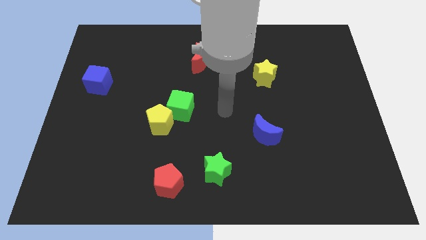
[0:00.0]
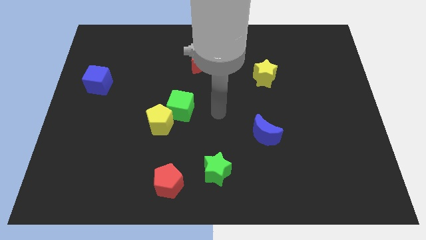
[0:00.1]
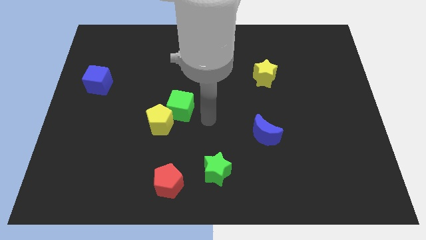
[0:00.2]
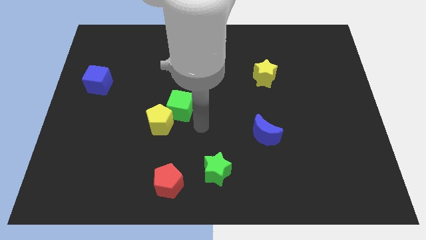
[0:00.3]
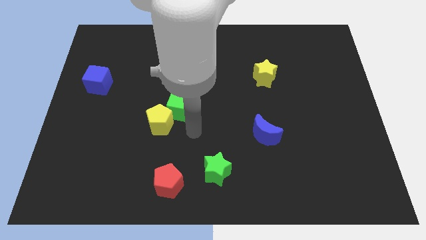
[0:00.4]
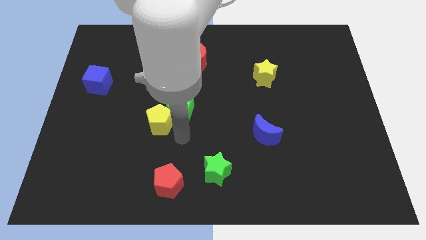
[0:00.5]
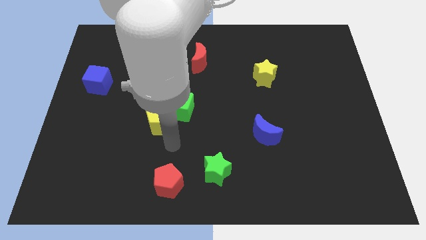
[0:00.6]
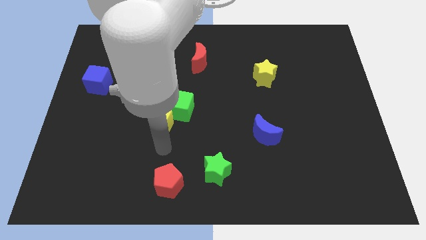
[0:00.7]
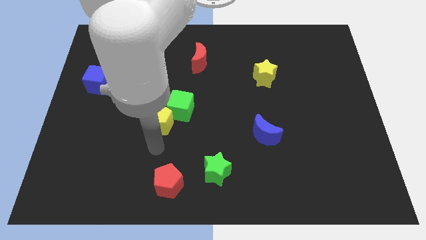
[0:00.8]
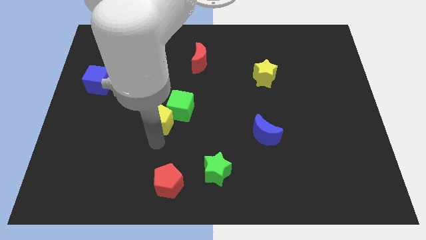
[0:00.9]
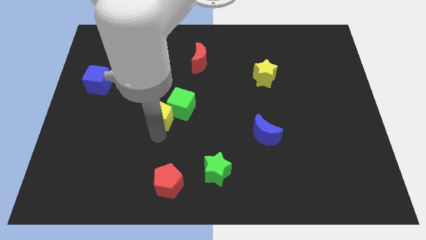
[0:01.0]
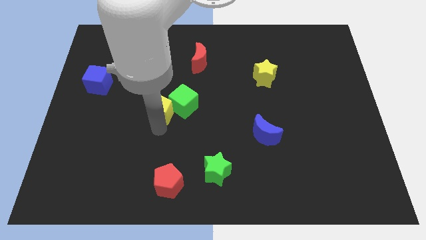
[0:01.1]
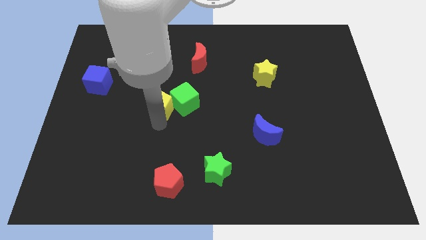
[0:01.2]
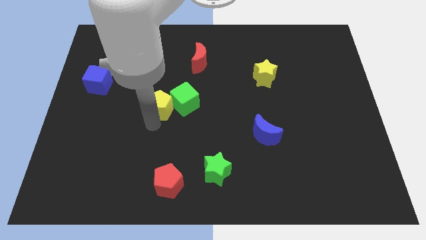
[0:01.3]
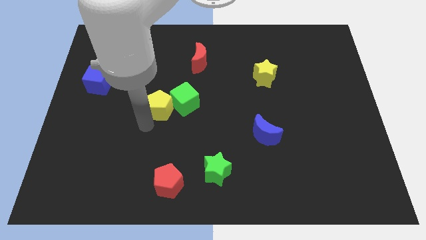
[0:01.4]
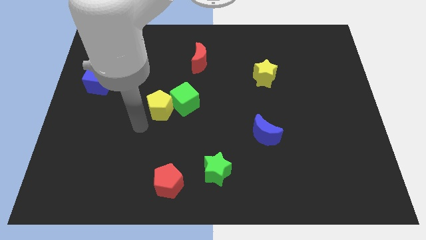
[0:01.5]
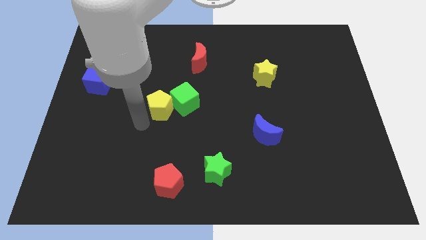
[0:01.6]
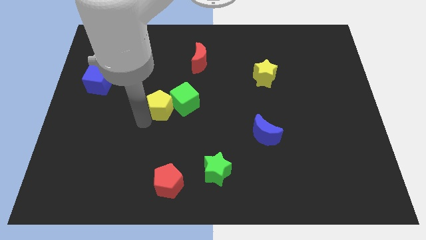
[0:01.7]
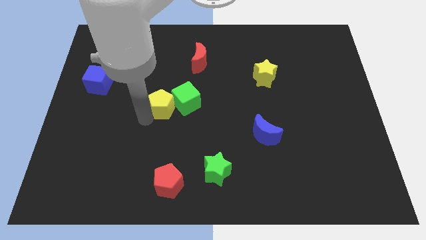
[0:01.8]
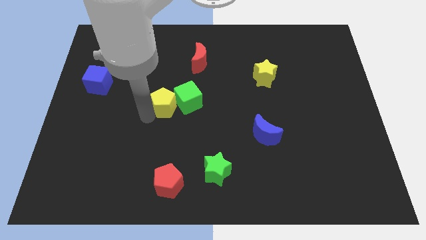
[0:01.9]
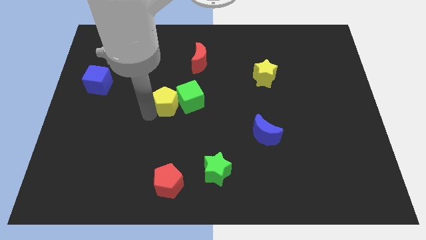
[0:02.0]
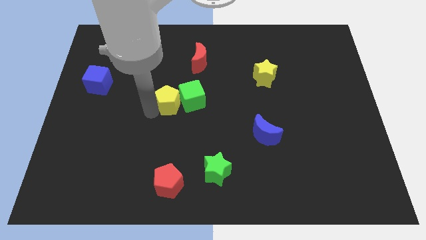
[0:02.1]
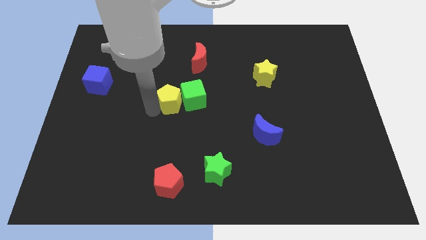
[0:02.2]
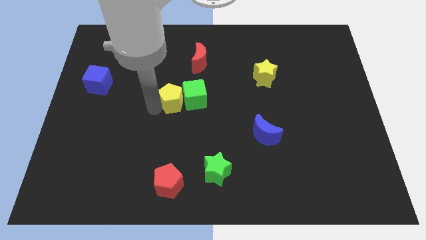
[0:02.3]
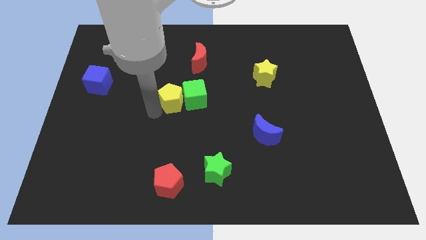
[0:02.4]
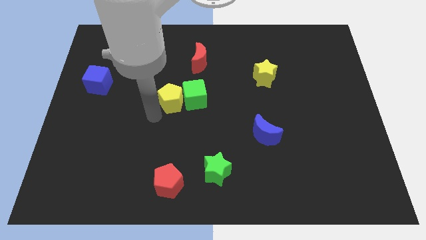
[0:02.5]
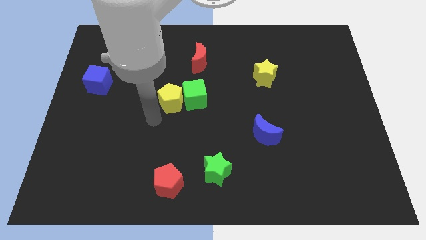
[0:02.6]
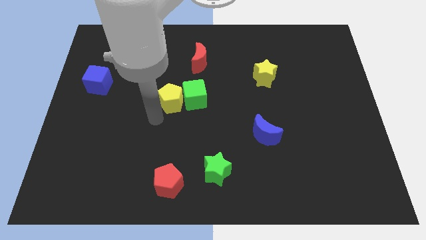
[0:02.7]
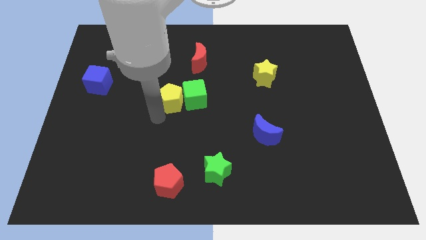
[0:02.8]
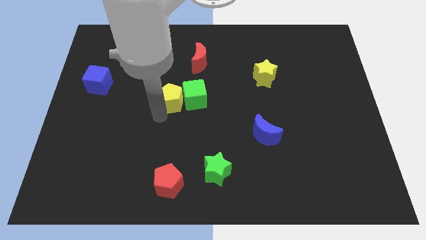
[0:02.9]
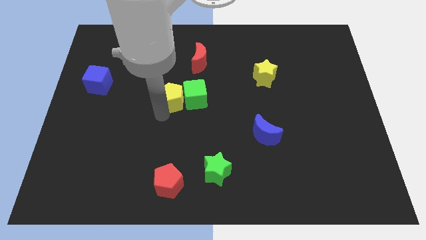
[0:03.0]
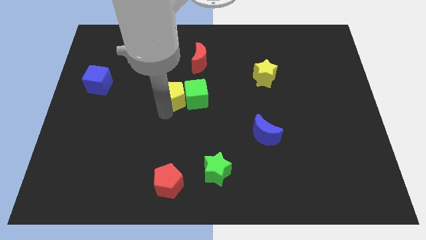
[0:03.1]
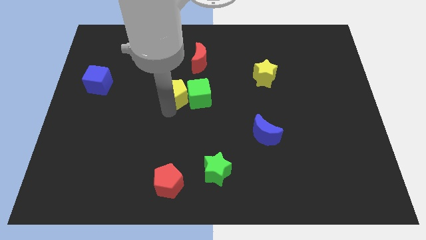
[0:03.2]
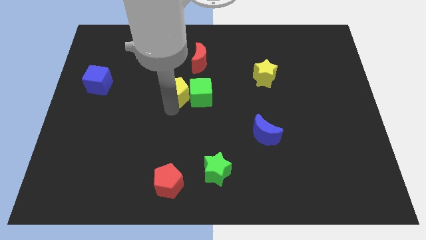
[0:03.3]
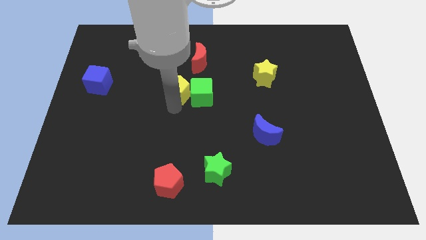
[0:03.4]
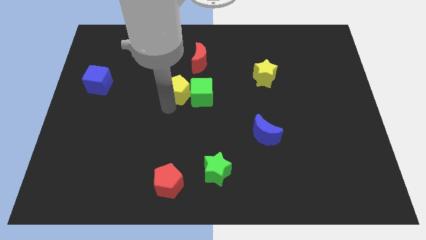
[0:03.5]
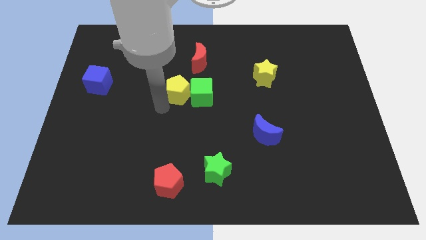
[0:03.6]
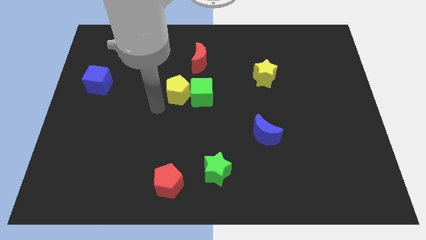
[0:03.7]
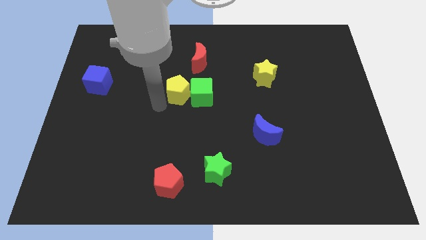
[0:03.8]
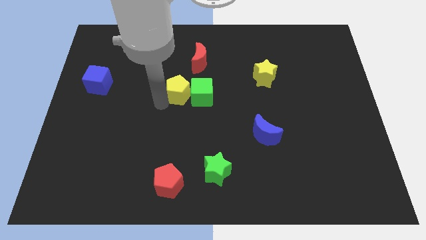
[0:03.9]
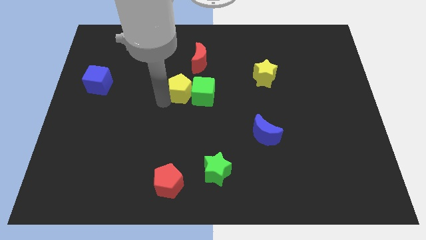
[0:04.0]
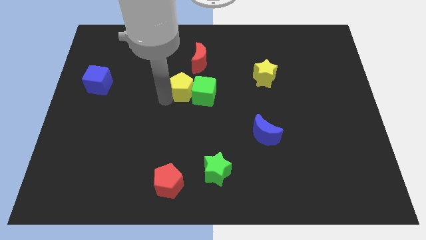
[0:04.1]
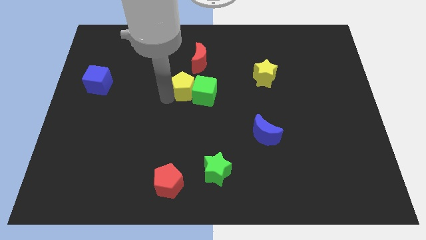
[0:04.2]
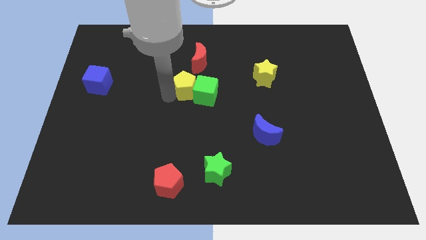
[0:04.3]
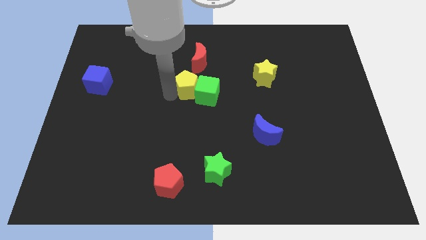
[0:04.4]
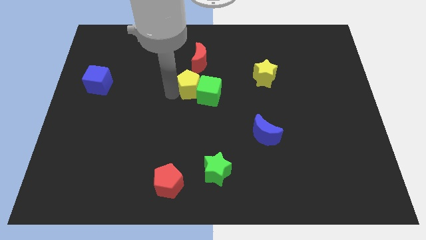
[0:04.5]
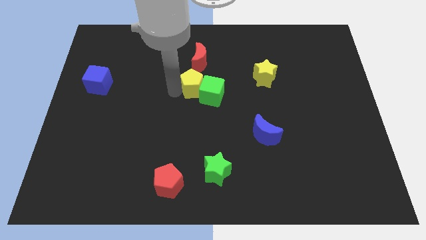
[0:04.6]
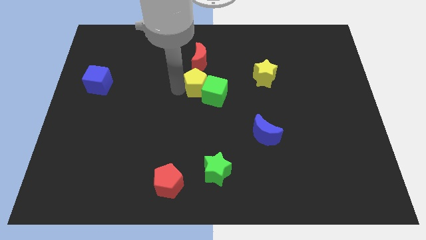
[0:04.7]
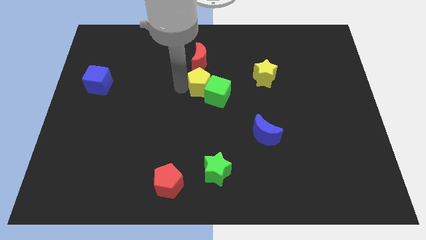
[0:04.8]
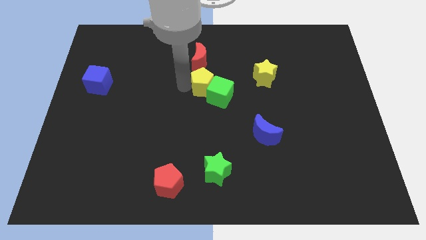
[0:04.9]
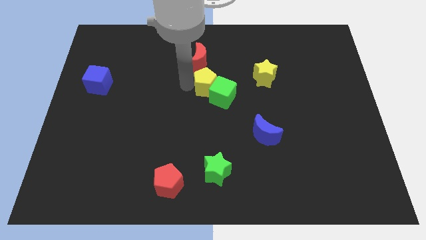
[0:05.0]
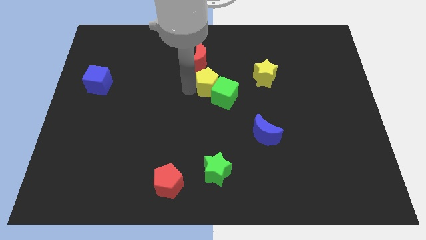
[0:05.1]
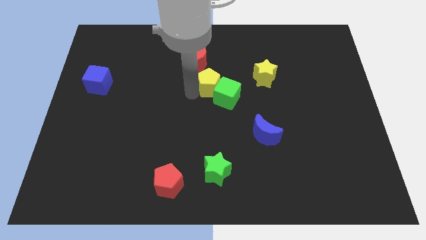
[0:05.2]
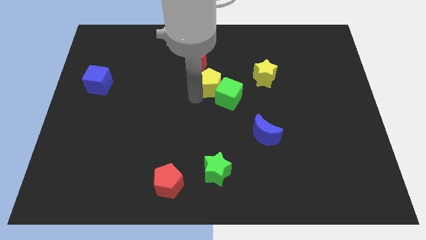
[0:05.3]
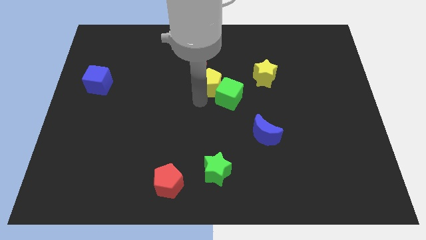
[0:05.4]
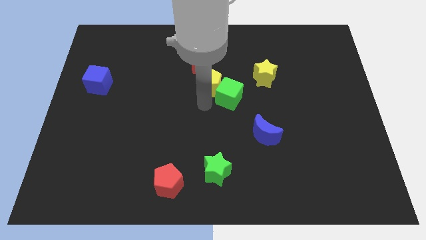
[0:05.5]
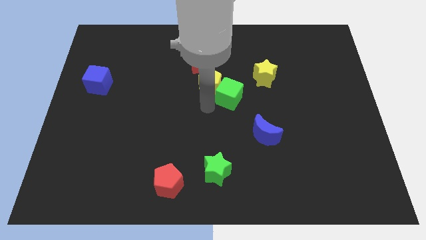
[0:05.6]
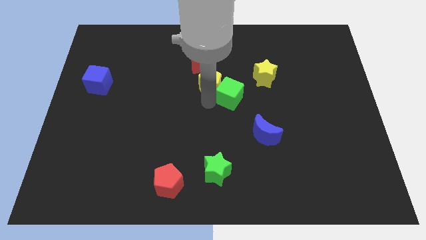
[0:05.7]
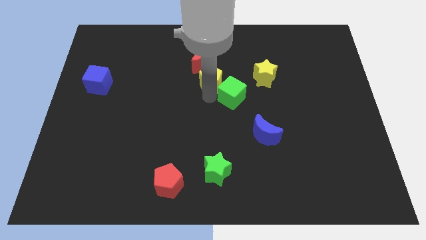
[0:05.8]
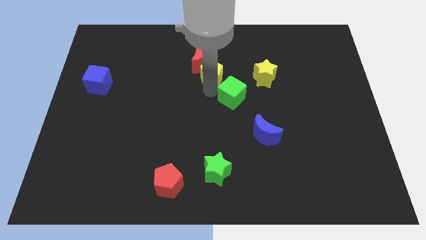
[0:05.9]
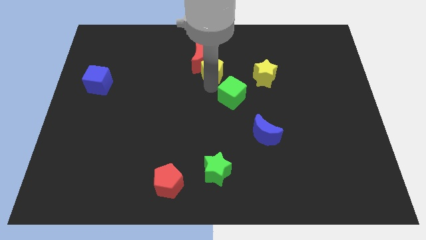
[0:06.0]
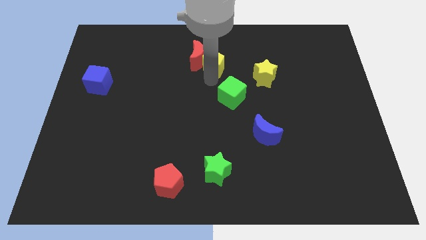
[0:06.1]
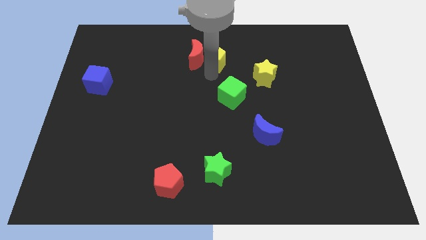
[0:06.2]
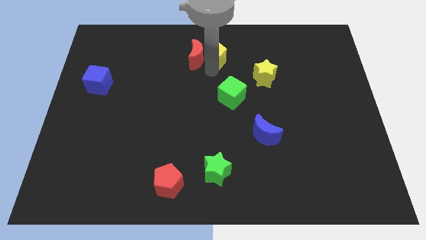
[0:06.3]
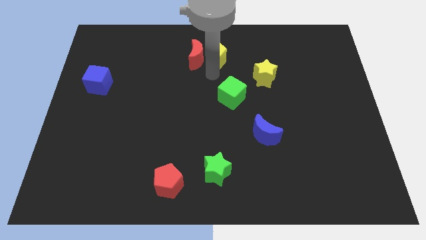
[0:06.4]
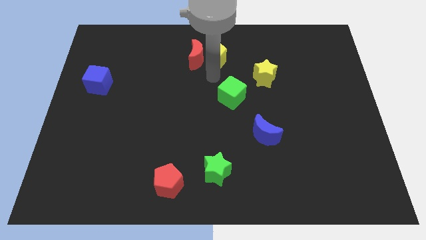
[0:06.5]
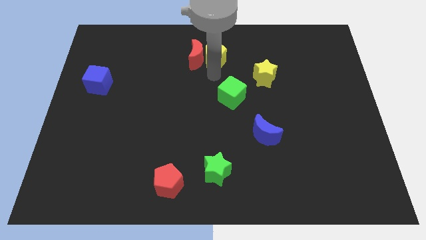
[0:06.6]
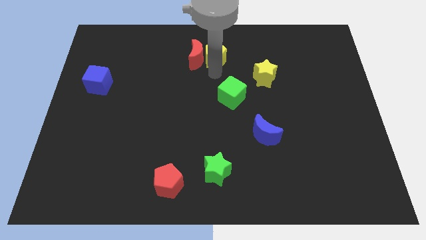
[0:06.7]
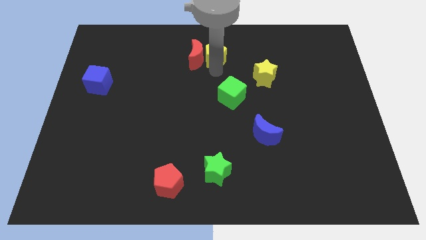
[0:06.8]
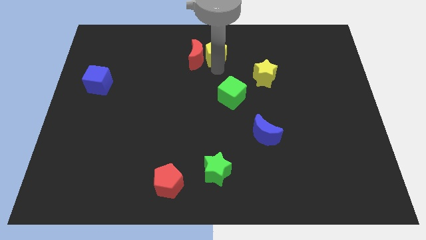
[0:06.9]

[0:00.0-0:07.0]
push the yellow pentagon to the towards your base
